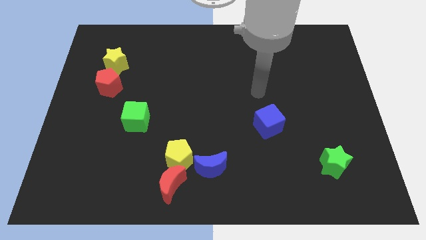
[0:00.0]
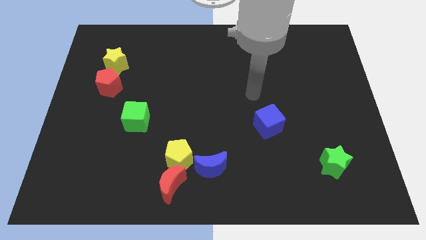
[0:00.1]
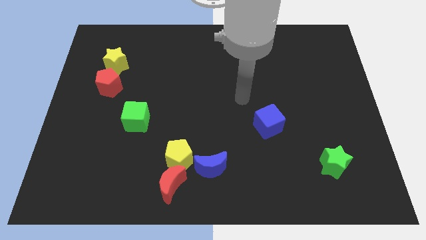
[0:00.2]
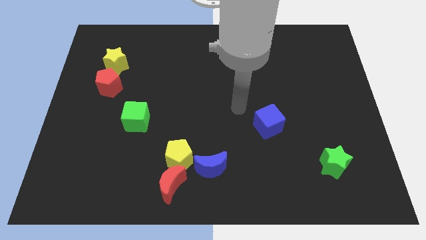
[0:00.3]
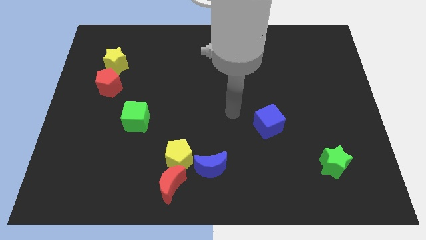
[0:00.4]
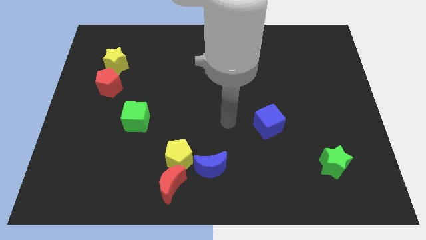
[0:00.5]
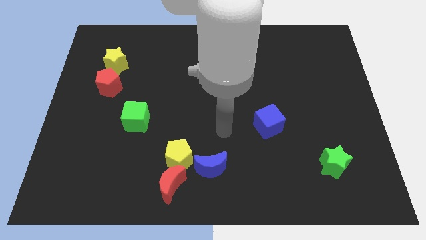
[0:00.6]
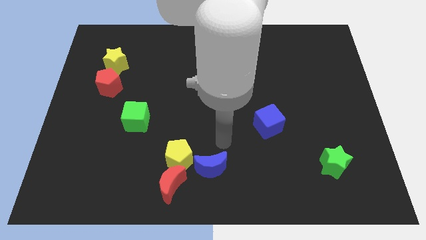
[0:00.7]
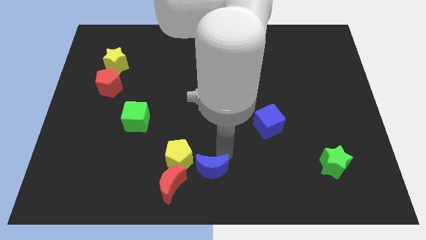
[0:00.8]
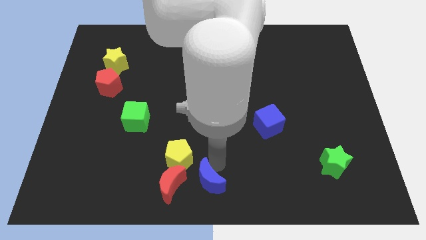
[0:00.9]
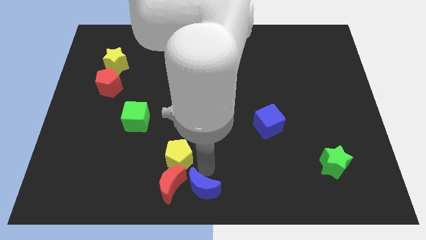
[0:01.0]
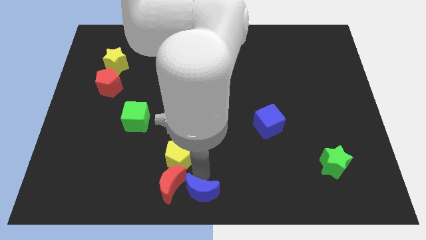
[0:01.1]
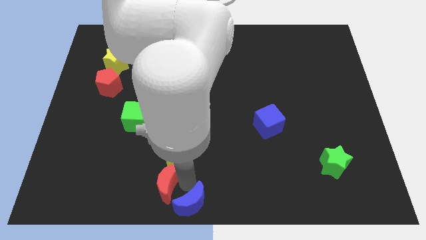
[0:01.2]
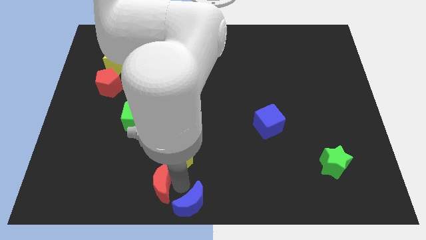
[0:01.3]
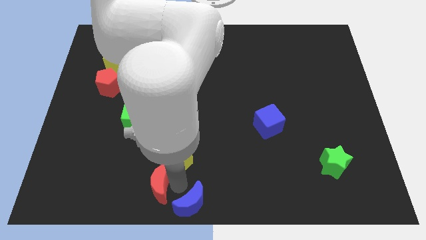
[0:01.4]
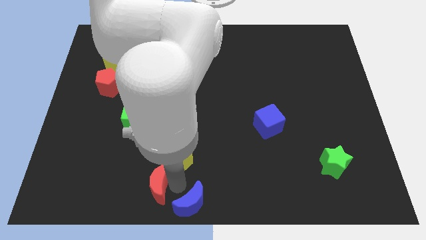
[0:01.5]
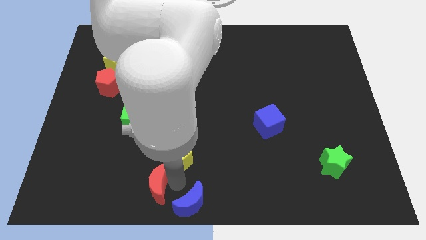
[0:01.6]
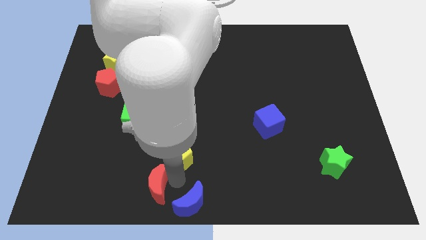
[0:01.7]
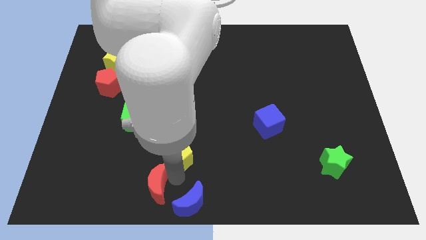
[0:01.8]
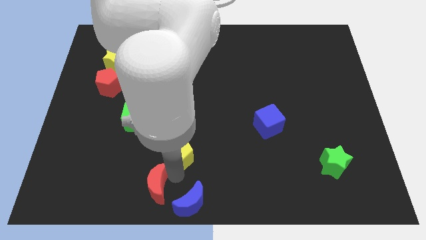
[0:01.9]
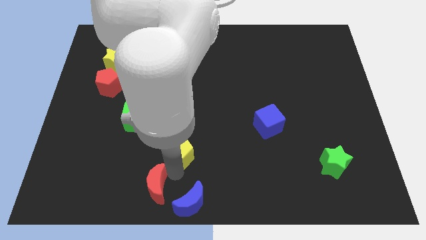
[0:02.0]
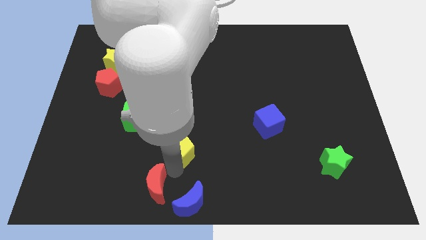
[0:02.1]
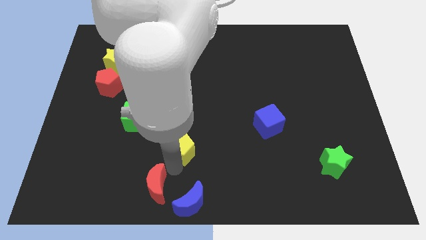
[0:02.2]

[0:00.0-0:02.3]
move the yellow pentagon away from the red moon and blue moon

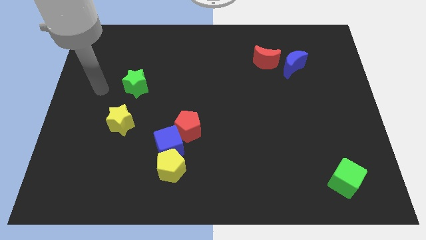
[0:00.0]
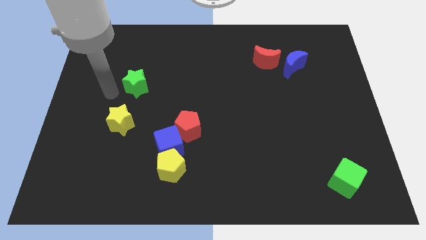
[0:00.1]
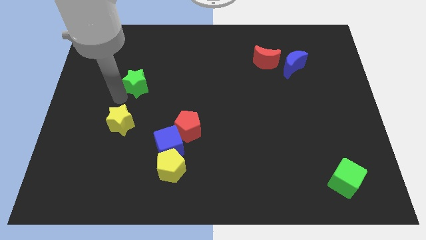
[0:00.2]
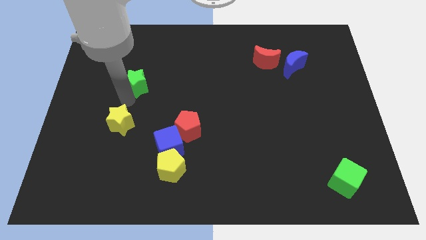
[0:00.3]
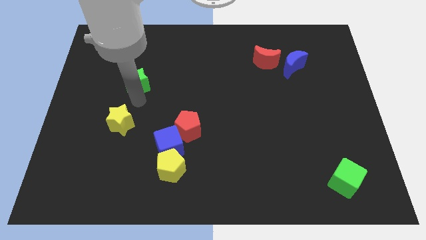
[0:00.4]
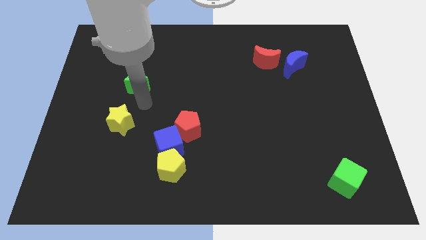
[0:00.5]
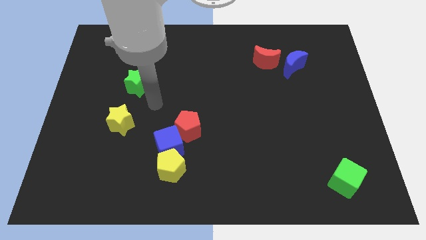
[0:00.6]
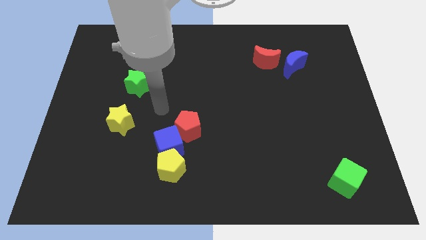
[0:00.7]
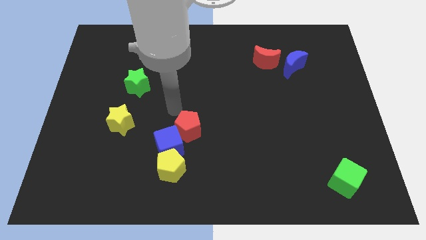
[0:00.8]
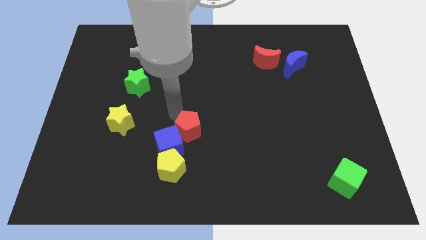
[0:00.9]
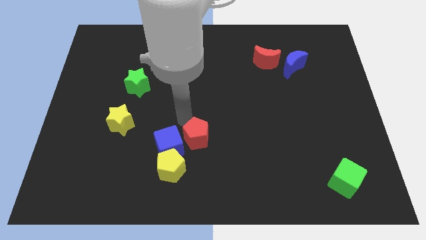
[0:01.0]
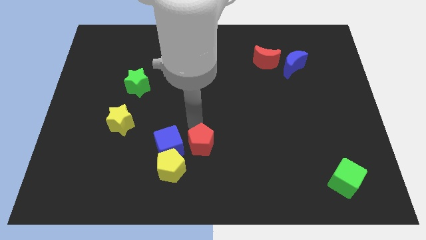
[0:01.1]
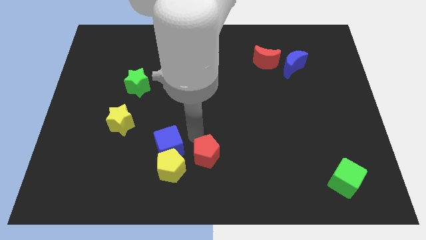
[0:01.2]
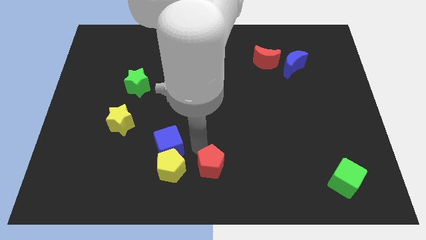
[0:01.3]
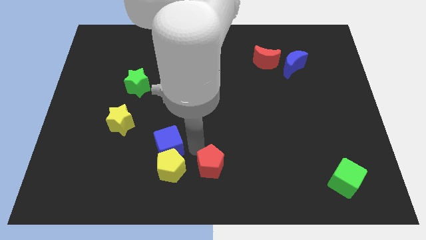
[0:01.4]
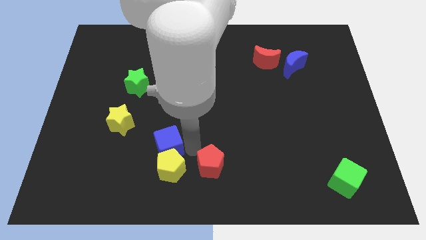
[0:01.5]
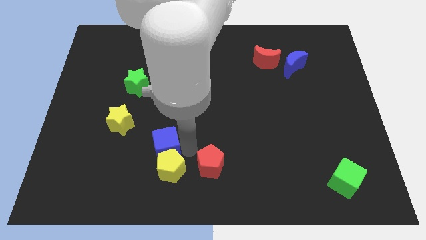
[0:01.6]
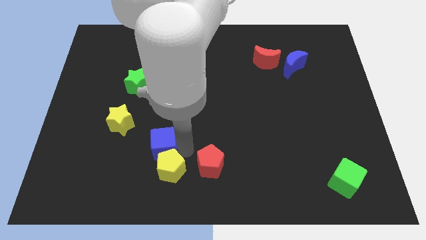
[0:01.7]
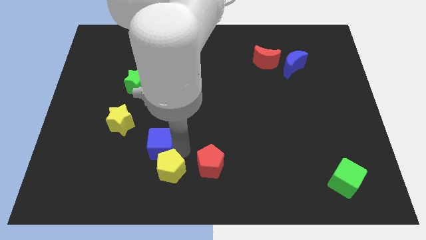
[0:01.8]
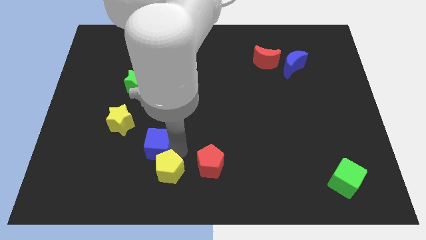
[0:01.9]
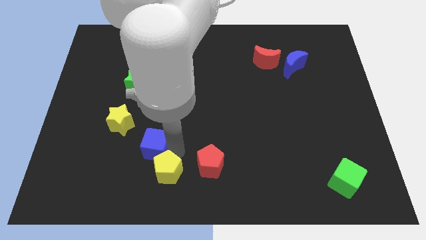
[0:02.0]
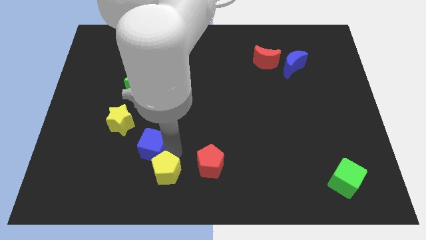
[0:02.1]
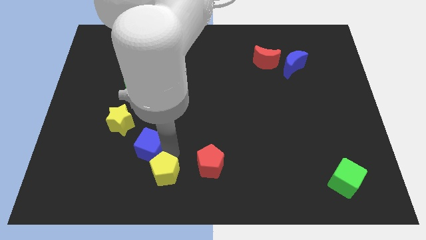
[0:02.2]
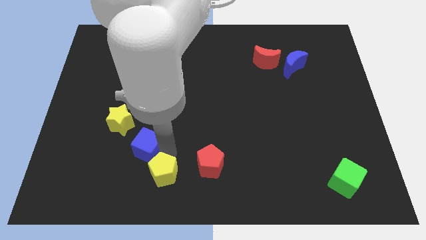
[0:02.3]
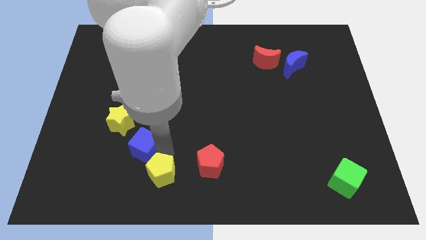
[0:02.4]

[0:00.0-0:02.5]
move the blue cube away from the yellow pentagon and red pentagon

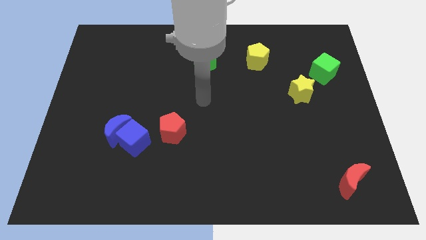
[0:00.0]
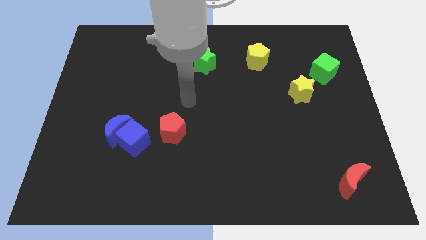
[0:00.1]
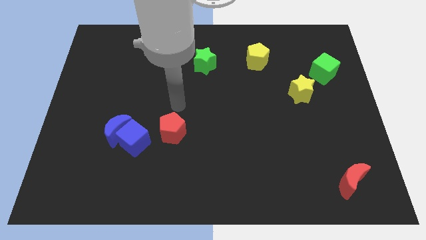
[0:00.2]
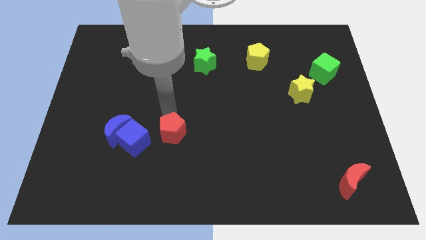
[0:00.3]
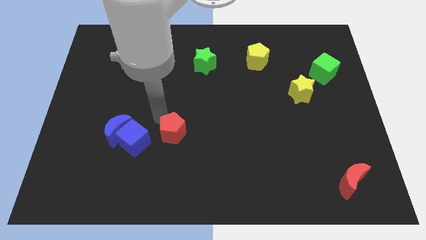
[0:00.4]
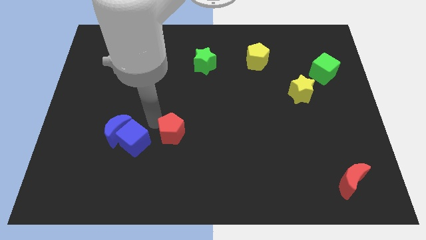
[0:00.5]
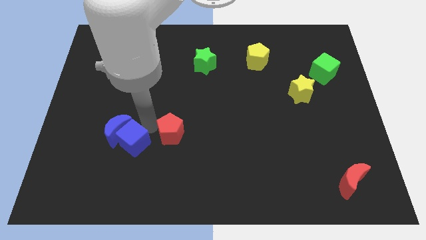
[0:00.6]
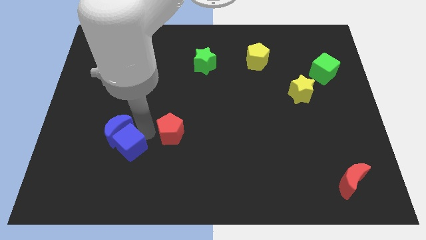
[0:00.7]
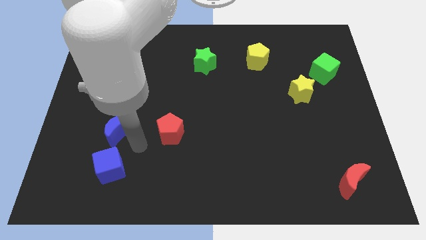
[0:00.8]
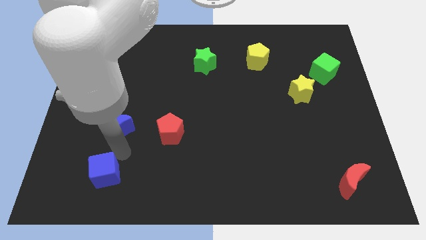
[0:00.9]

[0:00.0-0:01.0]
separate the blue moon from the blue cube

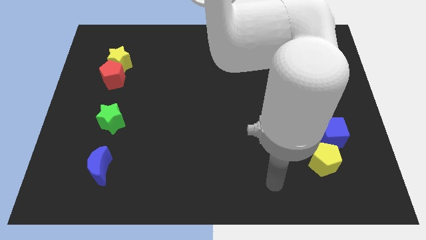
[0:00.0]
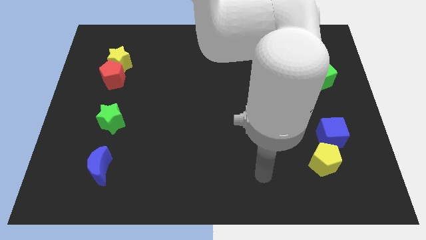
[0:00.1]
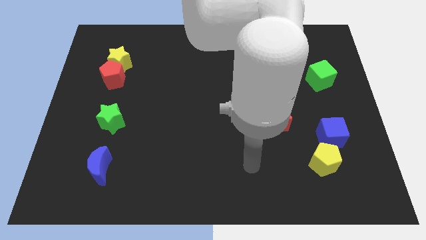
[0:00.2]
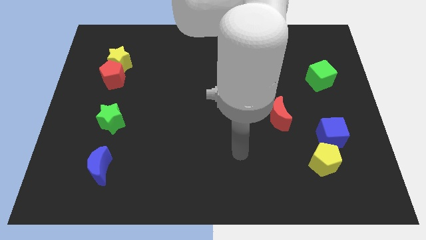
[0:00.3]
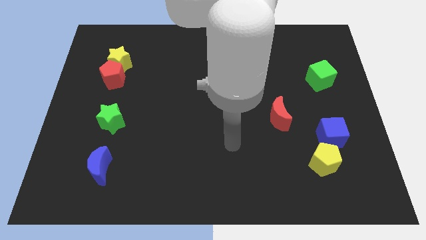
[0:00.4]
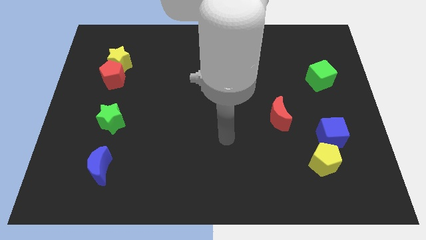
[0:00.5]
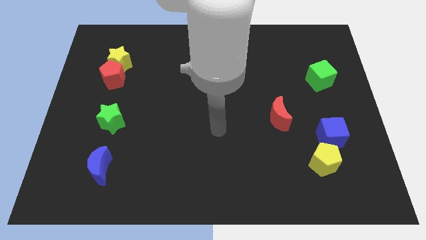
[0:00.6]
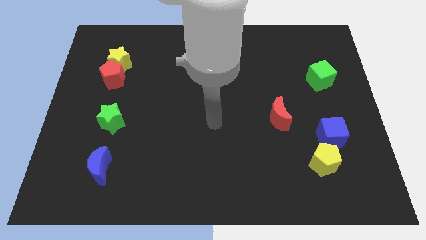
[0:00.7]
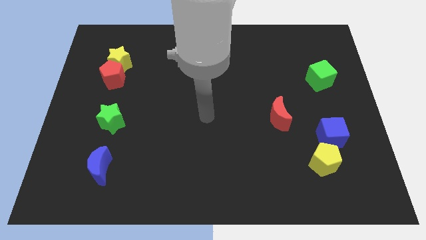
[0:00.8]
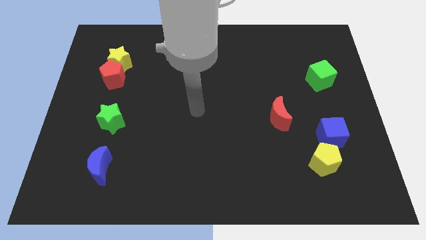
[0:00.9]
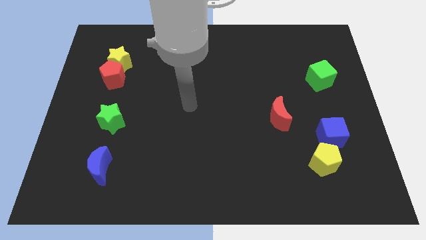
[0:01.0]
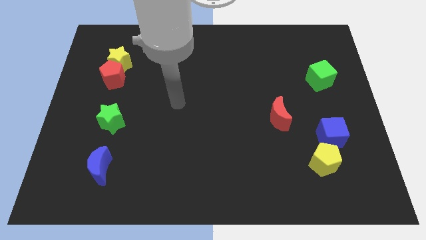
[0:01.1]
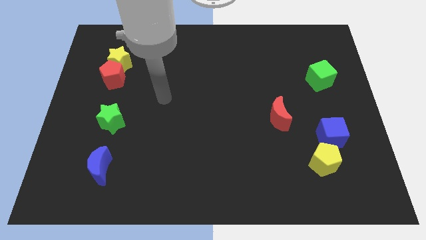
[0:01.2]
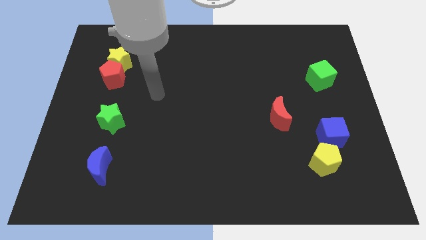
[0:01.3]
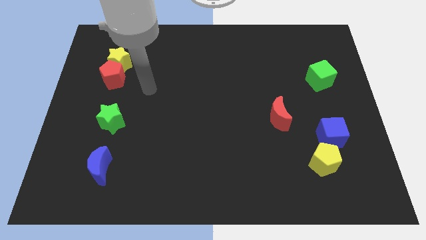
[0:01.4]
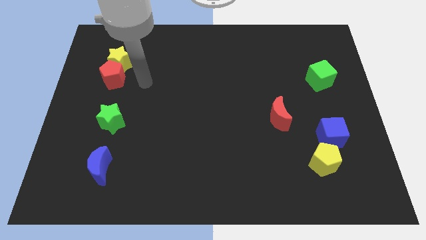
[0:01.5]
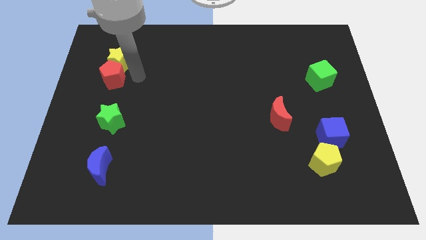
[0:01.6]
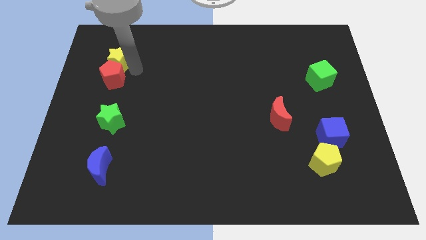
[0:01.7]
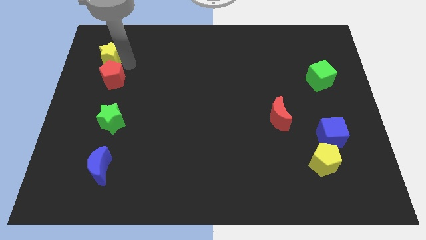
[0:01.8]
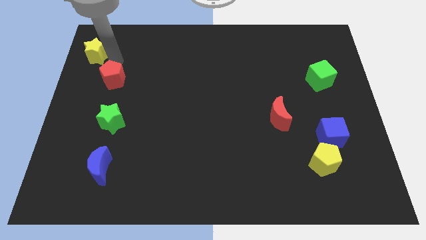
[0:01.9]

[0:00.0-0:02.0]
pull the red pentagon apart from the yellow star

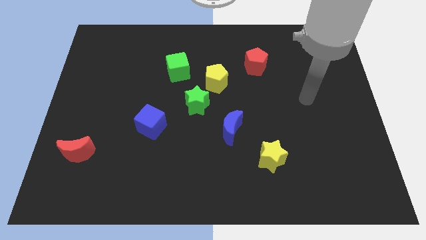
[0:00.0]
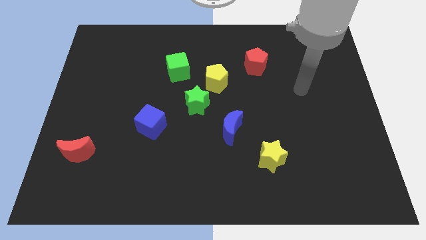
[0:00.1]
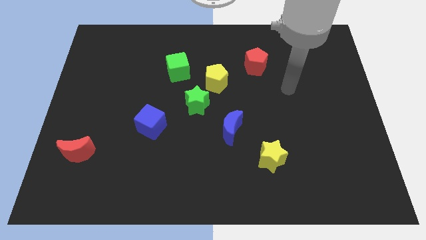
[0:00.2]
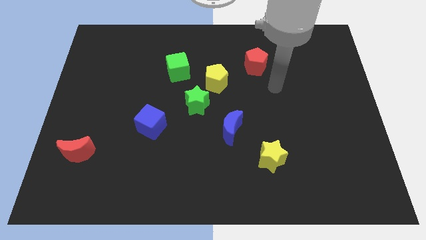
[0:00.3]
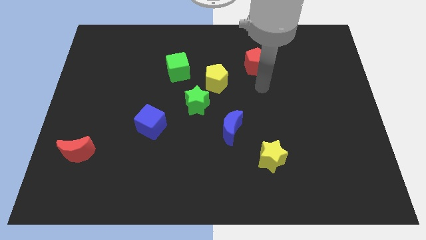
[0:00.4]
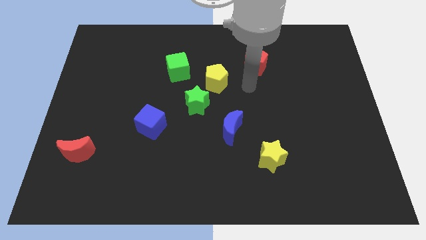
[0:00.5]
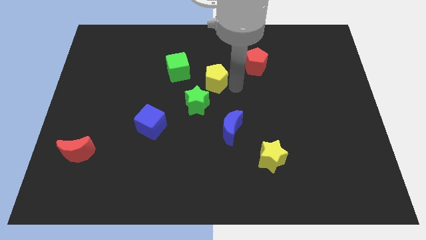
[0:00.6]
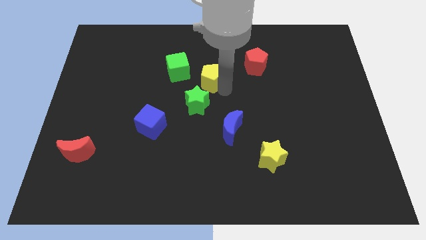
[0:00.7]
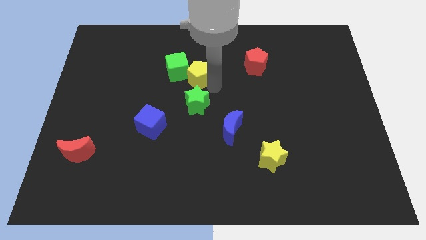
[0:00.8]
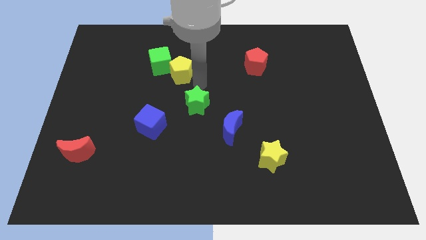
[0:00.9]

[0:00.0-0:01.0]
pull the green star apart from the yellow pentagon

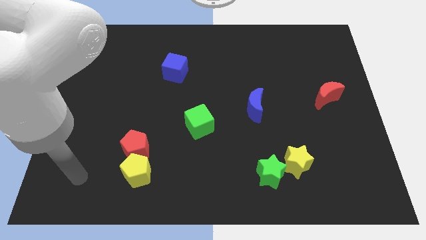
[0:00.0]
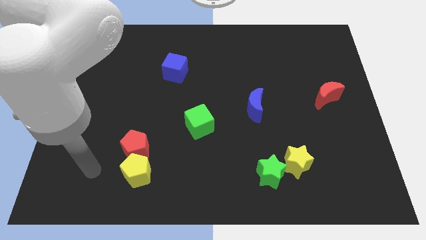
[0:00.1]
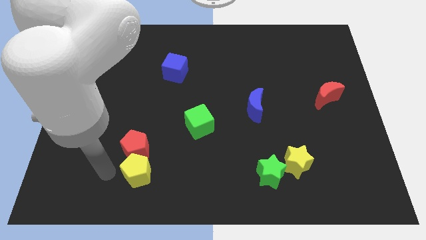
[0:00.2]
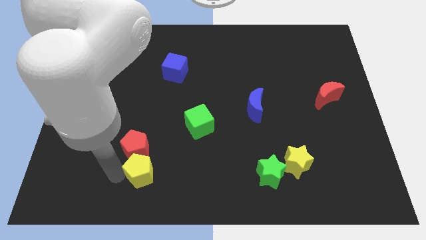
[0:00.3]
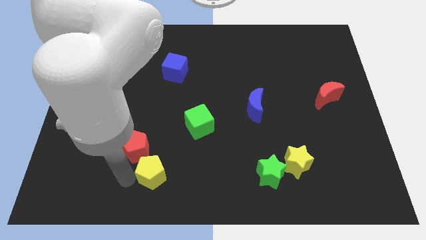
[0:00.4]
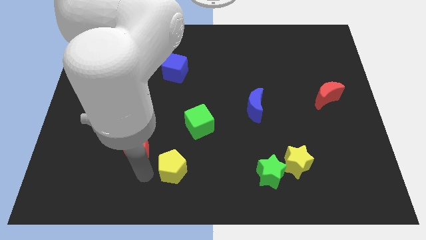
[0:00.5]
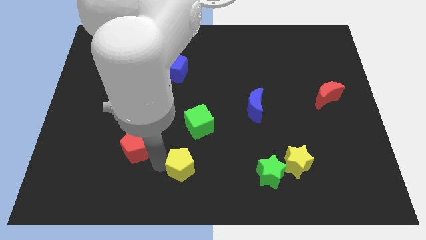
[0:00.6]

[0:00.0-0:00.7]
move the red pentagon away from the yellow pentagon
